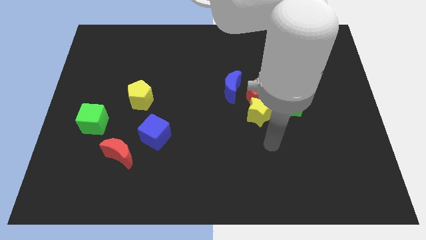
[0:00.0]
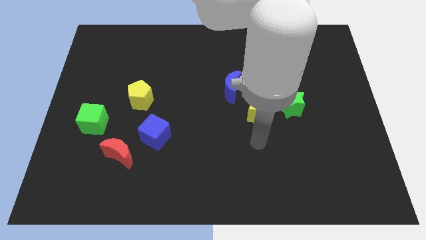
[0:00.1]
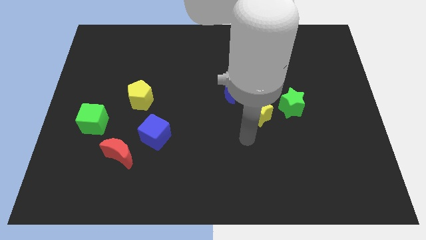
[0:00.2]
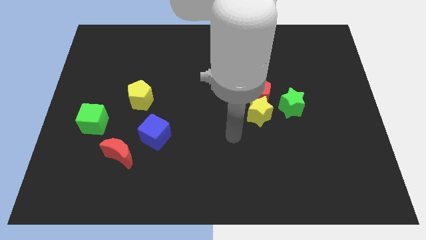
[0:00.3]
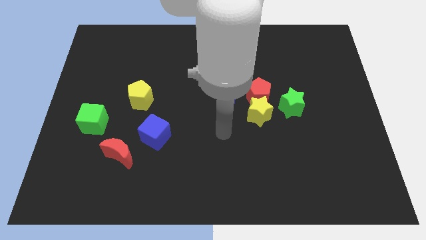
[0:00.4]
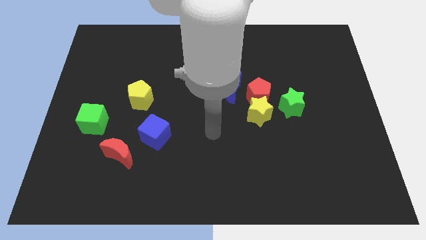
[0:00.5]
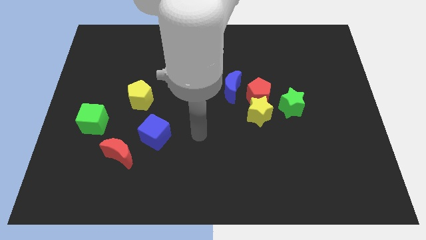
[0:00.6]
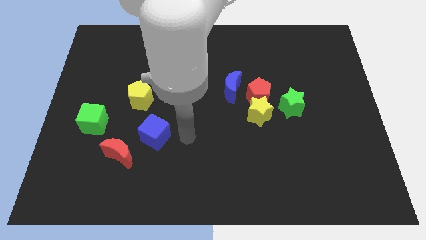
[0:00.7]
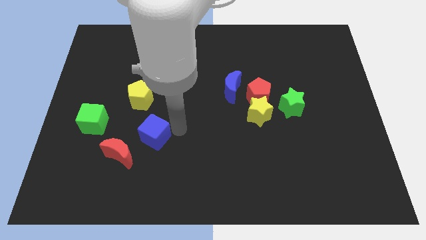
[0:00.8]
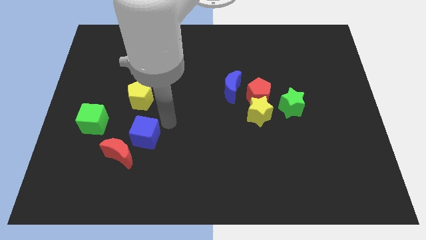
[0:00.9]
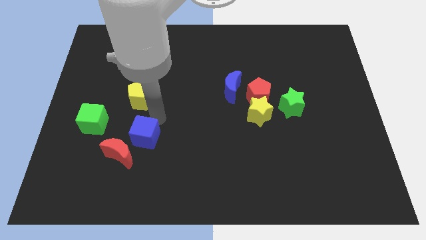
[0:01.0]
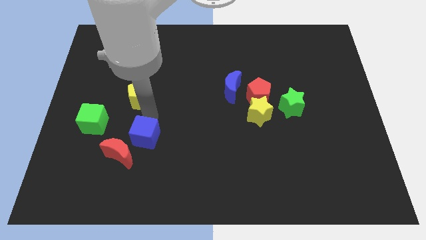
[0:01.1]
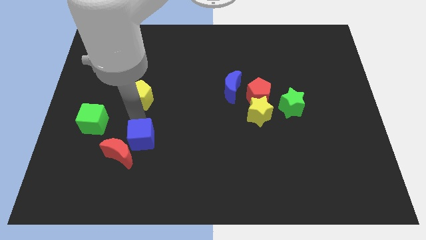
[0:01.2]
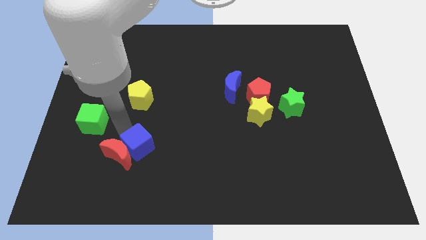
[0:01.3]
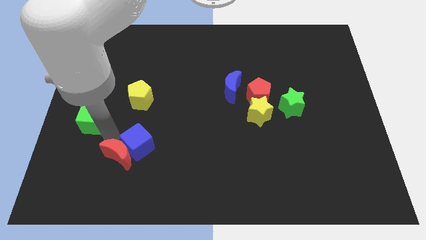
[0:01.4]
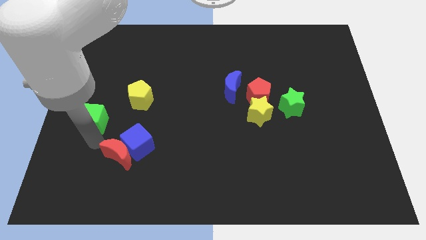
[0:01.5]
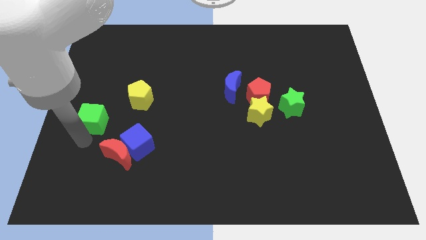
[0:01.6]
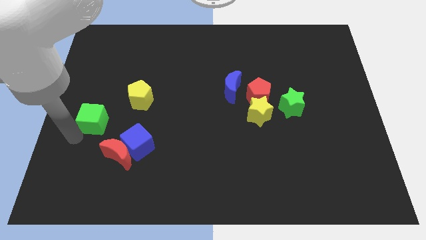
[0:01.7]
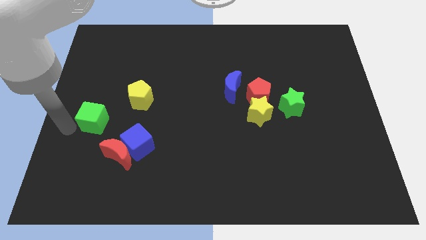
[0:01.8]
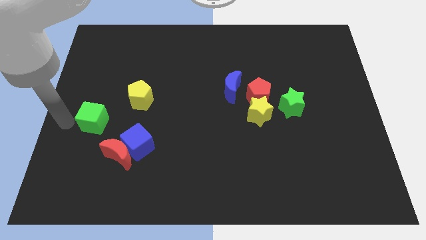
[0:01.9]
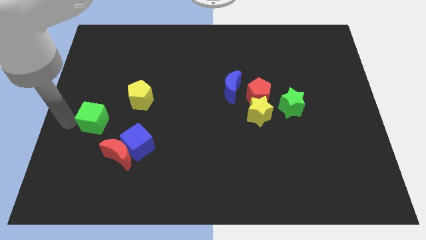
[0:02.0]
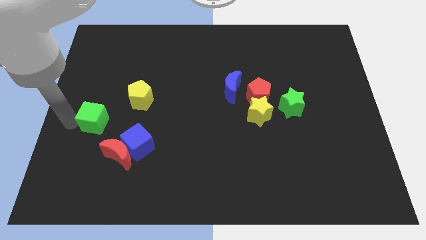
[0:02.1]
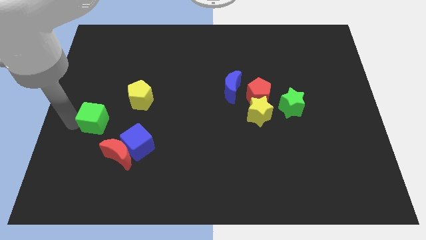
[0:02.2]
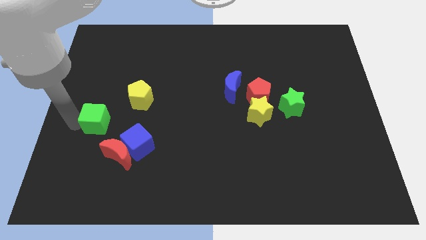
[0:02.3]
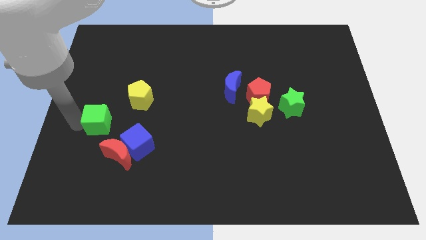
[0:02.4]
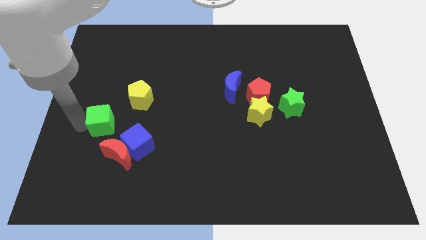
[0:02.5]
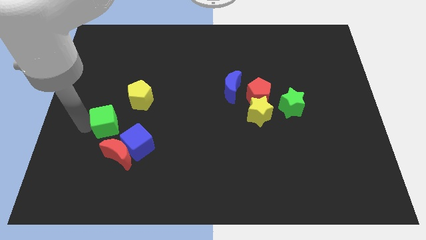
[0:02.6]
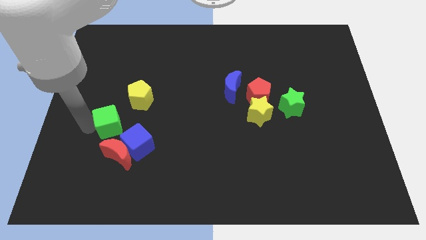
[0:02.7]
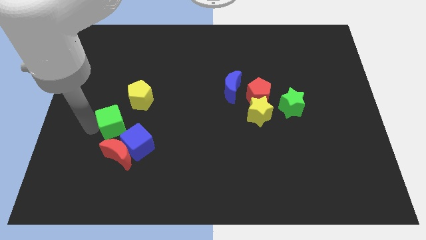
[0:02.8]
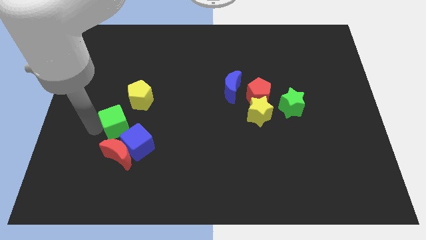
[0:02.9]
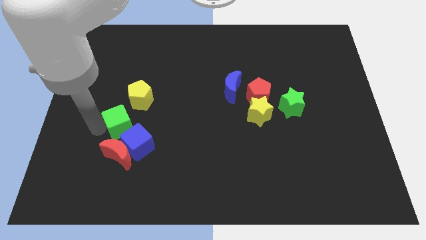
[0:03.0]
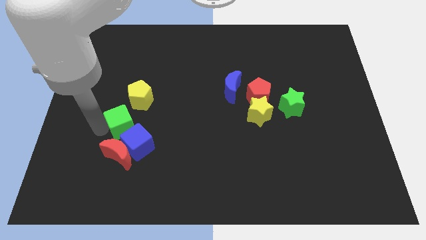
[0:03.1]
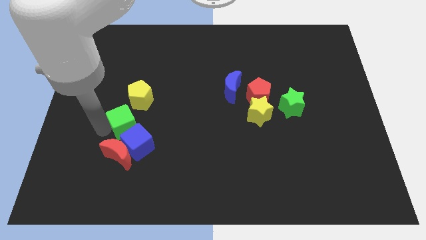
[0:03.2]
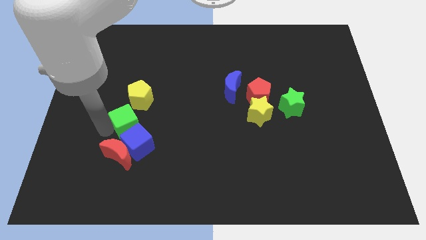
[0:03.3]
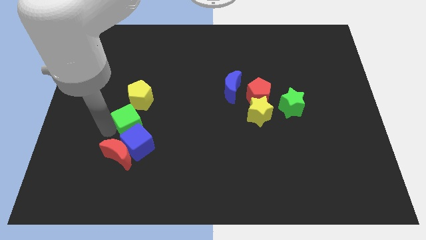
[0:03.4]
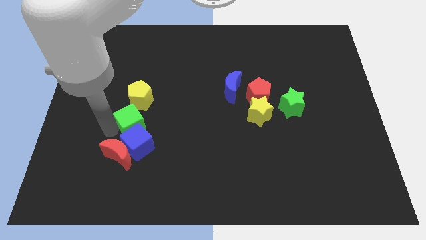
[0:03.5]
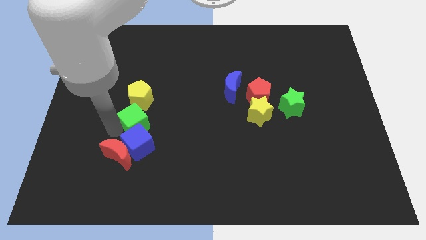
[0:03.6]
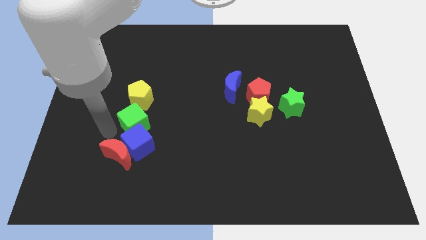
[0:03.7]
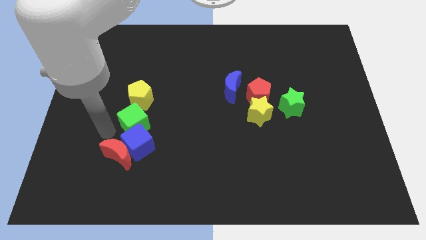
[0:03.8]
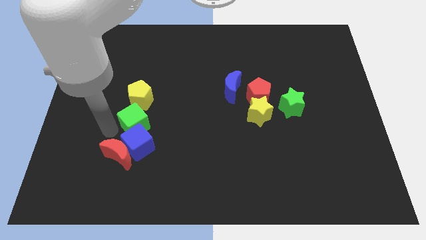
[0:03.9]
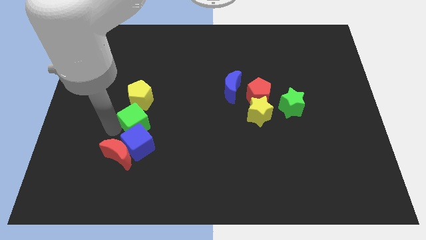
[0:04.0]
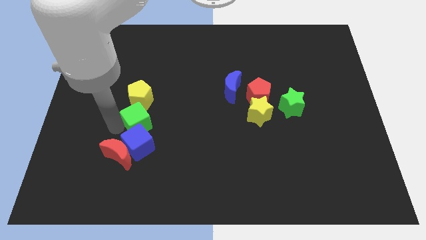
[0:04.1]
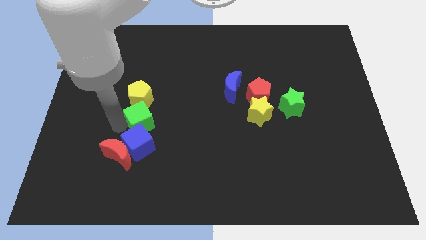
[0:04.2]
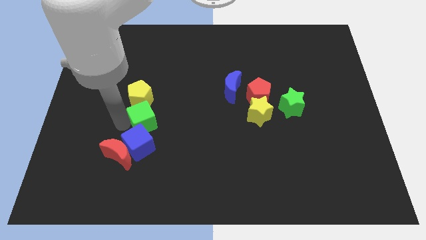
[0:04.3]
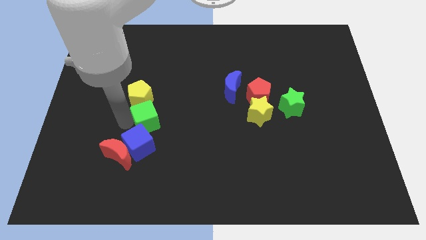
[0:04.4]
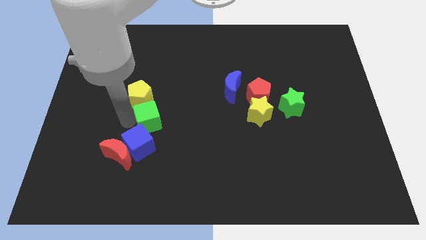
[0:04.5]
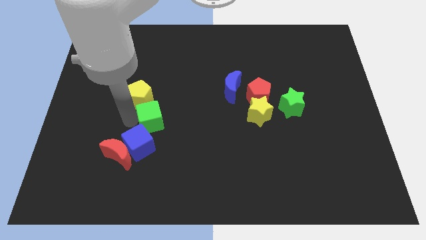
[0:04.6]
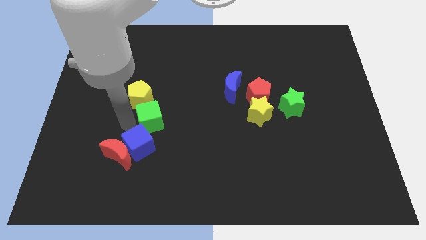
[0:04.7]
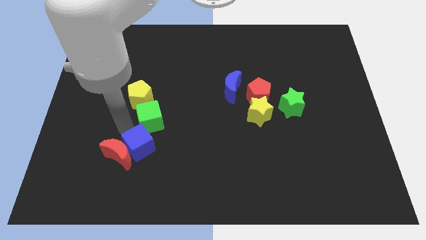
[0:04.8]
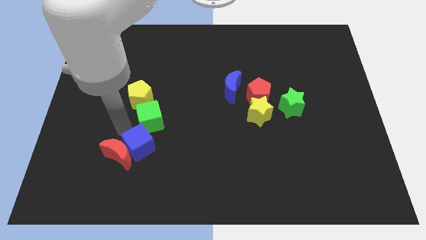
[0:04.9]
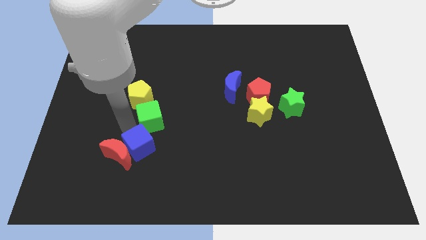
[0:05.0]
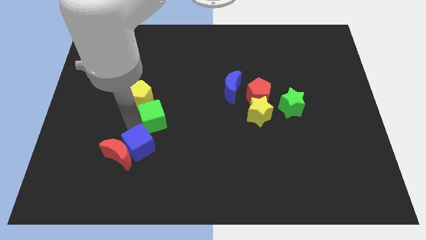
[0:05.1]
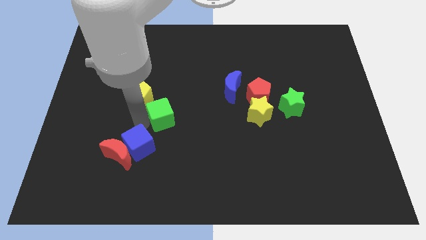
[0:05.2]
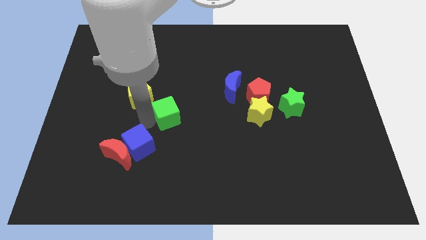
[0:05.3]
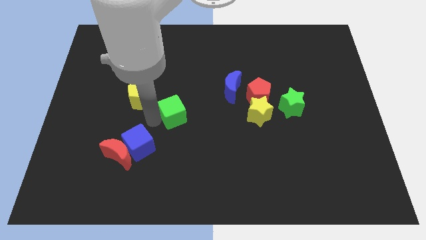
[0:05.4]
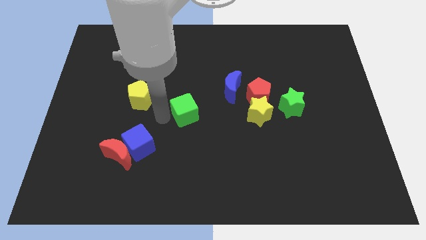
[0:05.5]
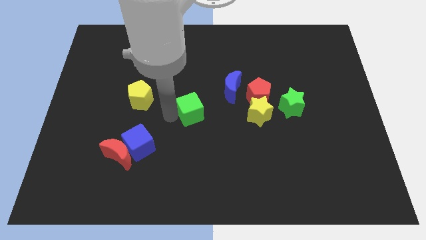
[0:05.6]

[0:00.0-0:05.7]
slide the green cube diagonally down and to the left of the blue moon

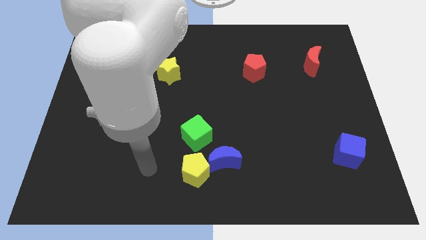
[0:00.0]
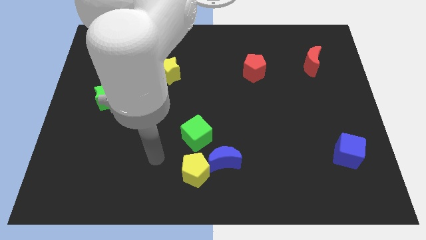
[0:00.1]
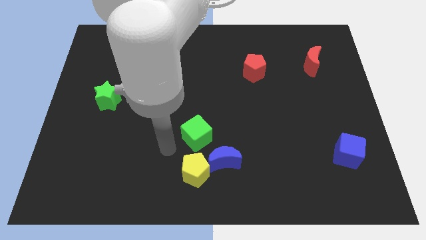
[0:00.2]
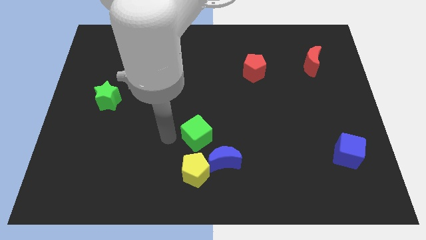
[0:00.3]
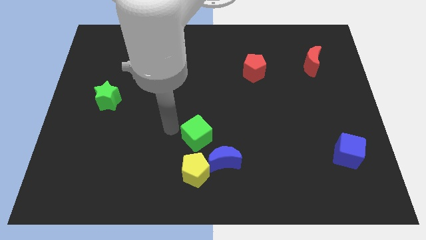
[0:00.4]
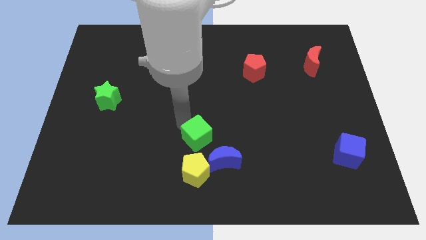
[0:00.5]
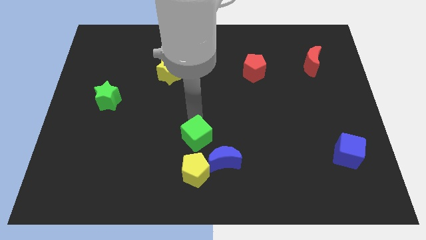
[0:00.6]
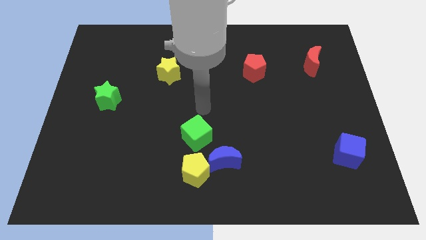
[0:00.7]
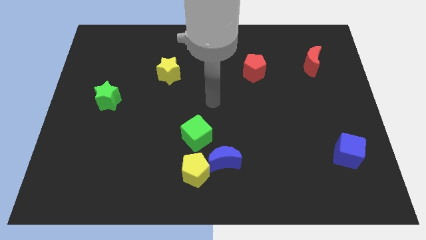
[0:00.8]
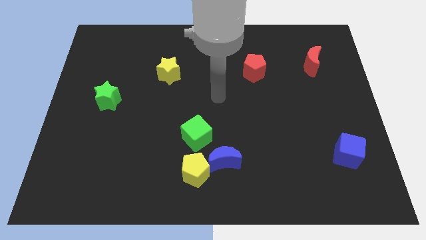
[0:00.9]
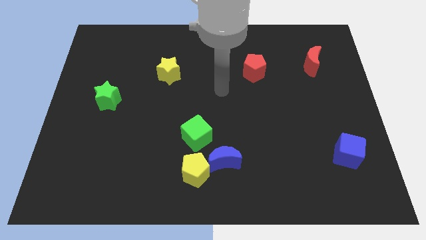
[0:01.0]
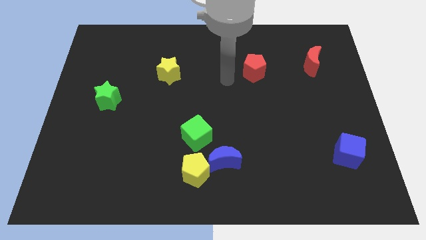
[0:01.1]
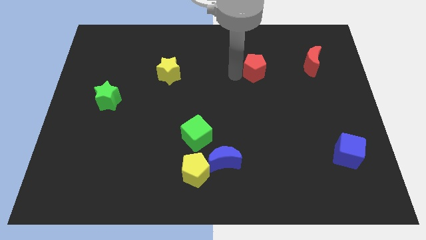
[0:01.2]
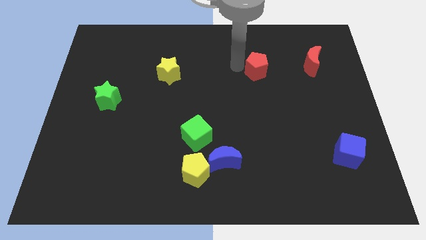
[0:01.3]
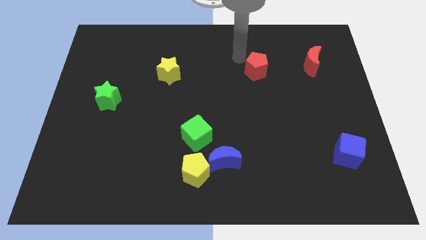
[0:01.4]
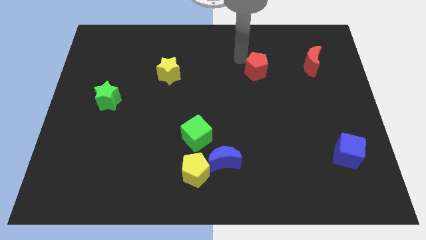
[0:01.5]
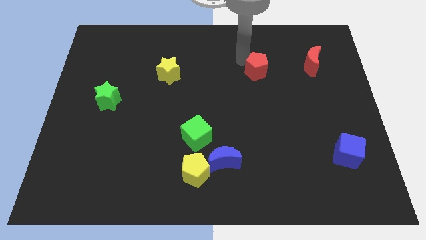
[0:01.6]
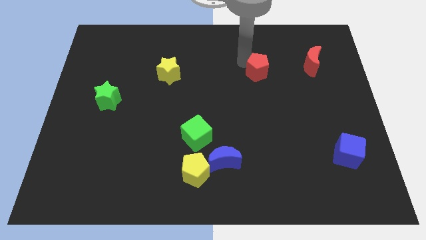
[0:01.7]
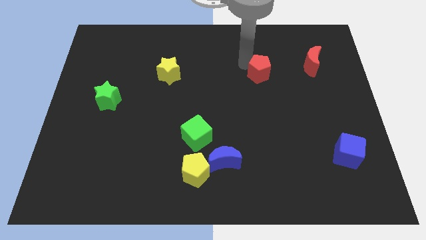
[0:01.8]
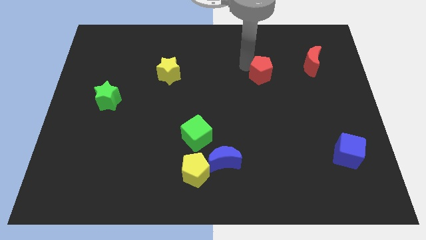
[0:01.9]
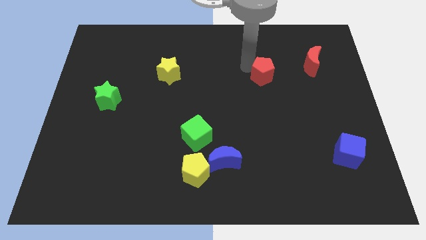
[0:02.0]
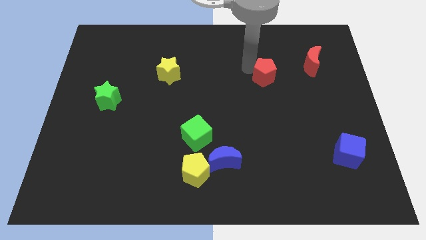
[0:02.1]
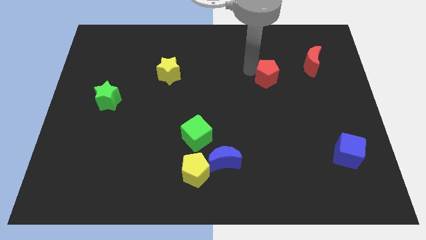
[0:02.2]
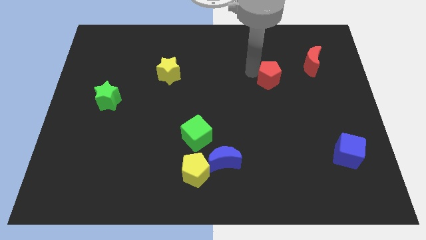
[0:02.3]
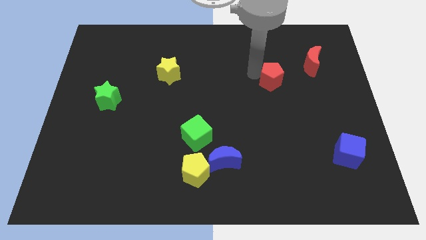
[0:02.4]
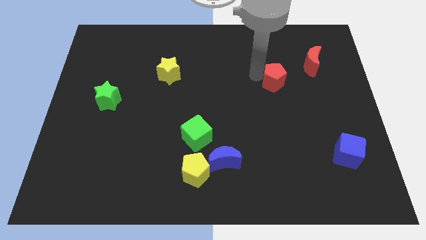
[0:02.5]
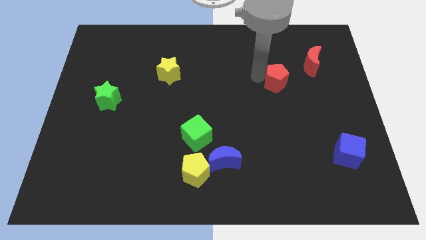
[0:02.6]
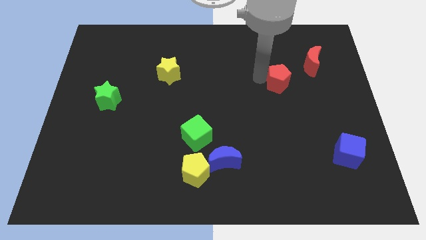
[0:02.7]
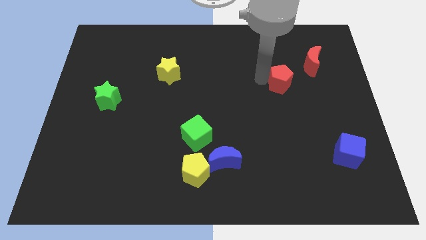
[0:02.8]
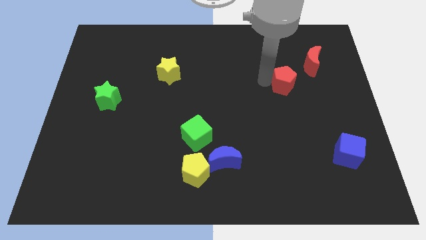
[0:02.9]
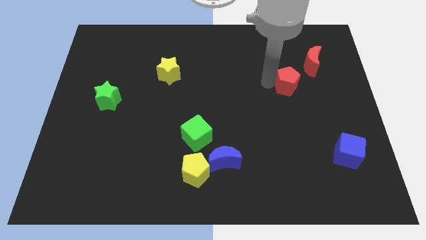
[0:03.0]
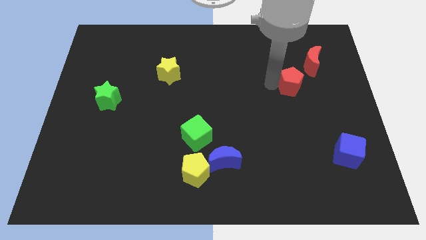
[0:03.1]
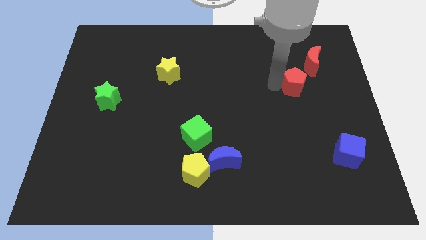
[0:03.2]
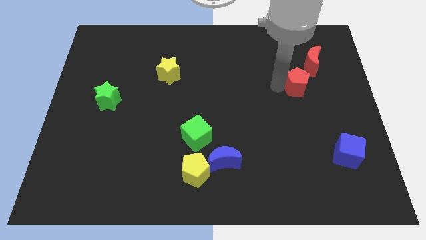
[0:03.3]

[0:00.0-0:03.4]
move the red pentagon to the bottom of the red moon
